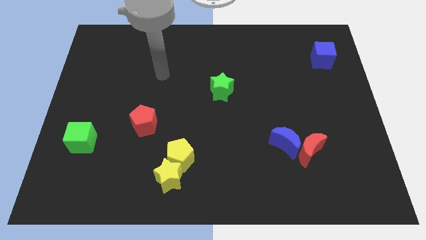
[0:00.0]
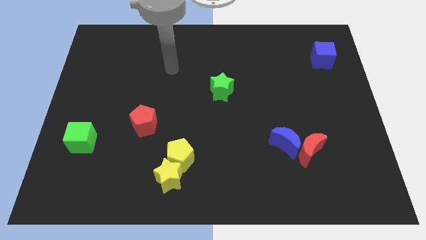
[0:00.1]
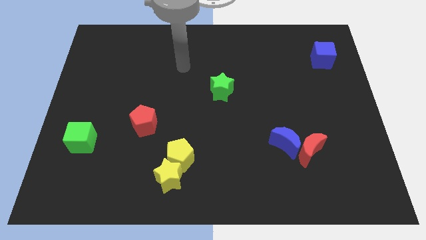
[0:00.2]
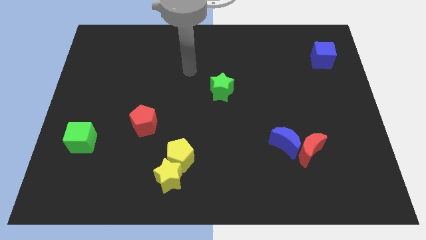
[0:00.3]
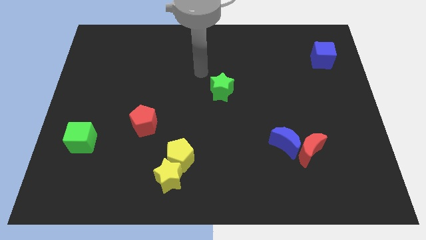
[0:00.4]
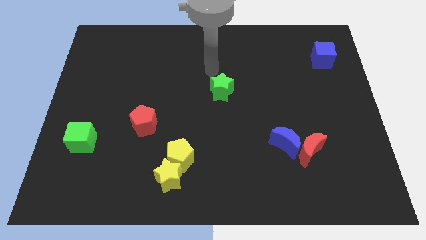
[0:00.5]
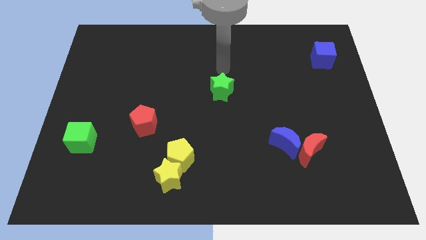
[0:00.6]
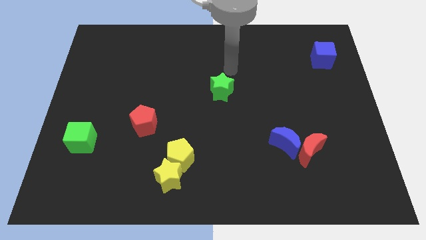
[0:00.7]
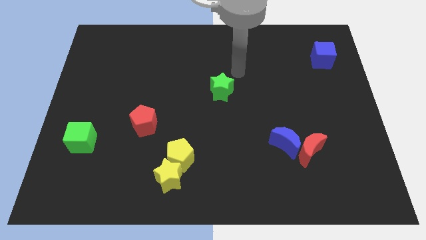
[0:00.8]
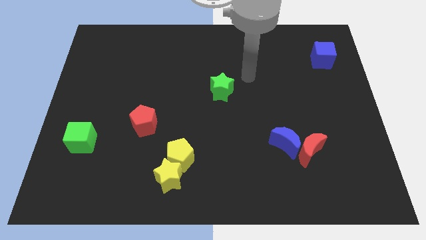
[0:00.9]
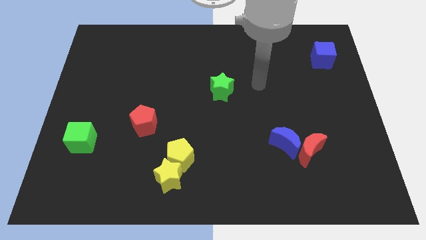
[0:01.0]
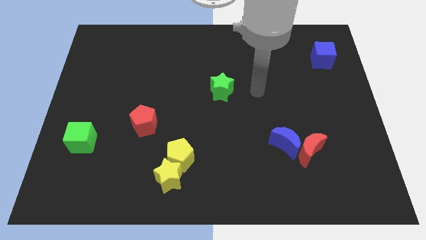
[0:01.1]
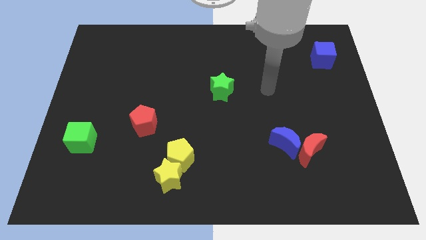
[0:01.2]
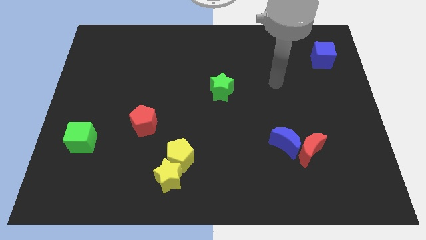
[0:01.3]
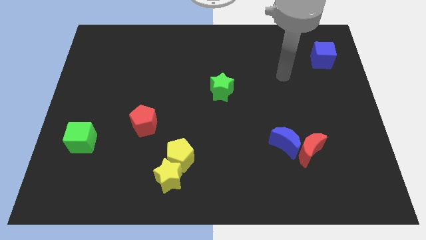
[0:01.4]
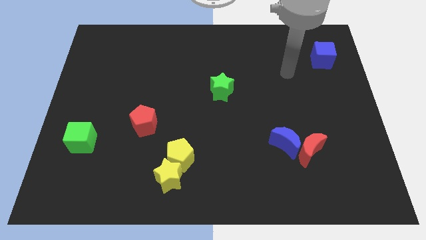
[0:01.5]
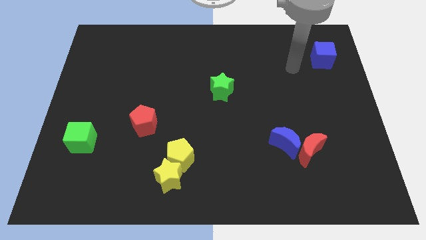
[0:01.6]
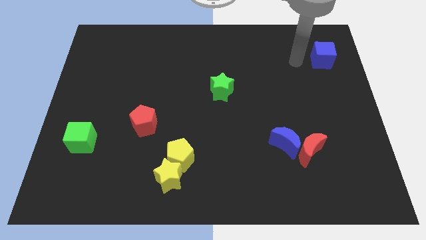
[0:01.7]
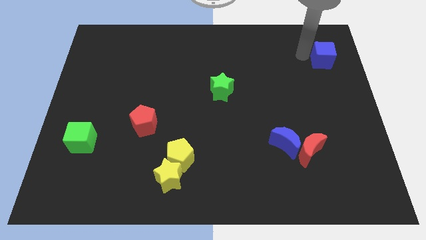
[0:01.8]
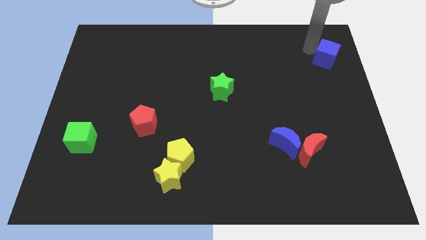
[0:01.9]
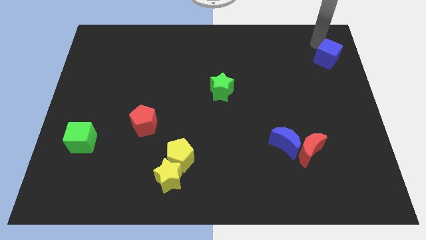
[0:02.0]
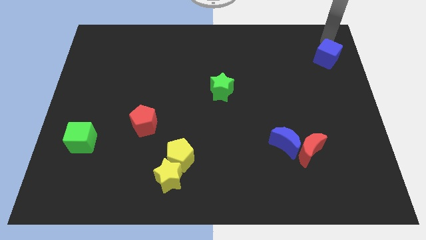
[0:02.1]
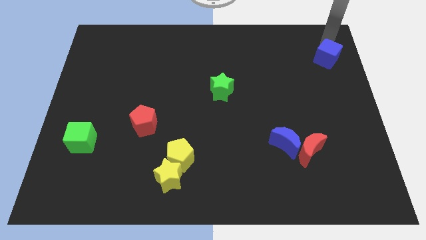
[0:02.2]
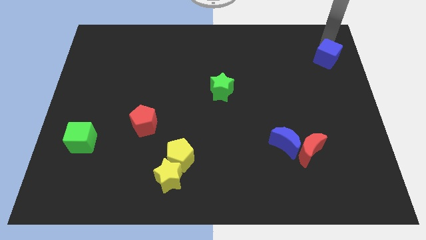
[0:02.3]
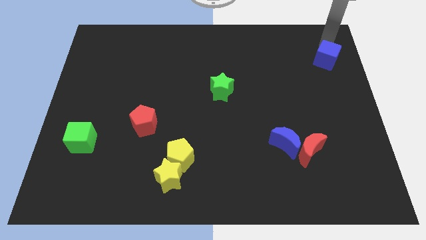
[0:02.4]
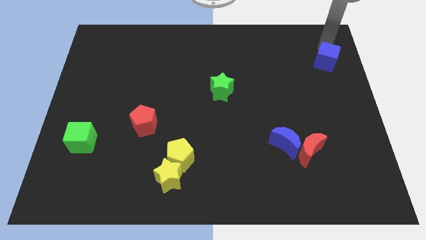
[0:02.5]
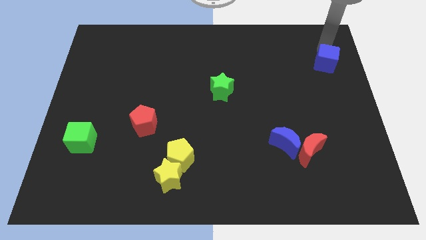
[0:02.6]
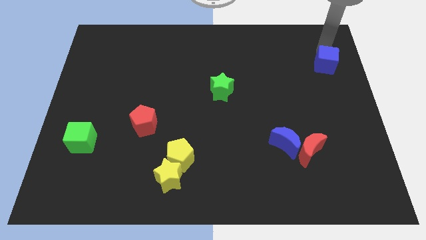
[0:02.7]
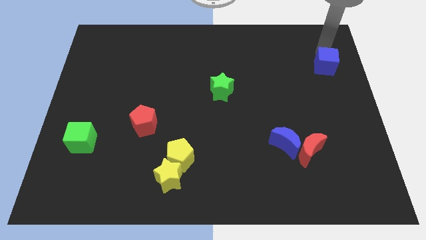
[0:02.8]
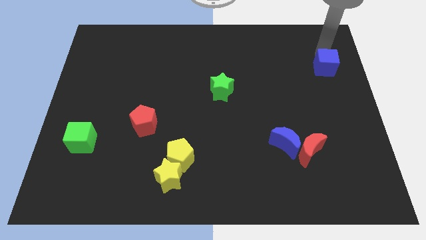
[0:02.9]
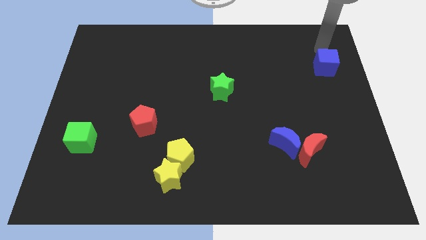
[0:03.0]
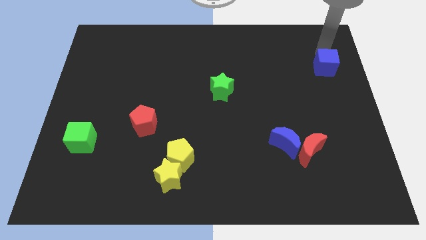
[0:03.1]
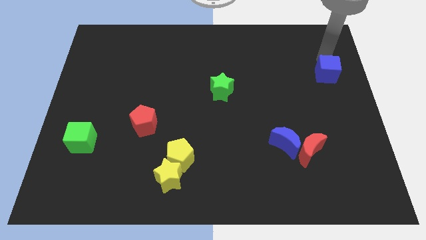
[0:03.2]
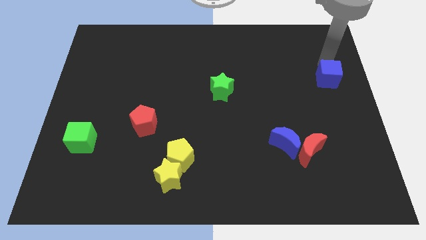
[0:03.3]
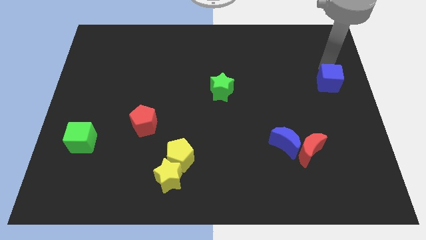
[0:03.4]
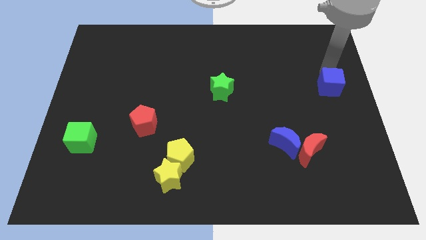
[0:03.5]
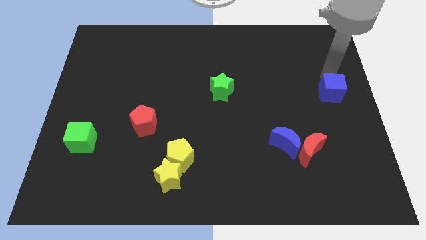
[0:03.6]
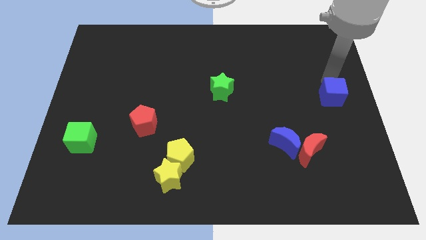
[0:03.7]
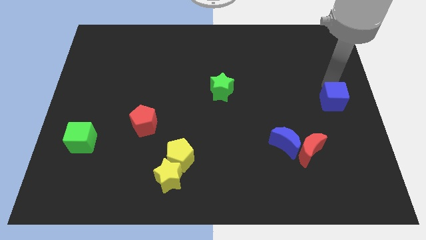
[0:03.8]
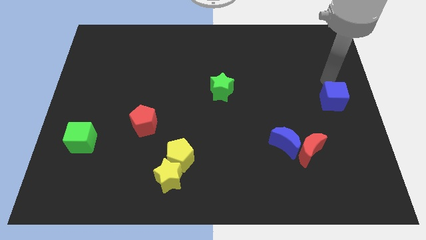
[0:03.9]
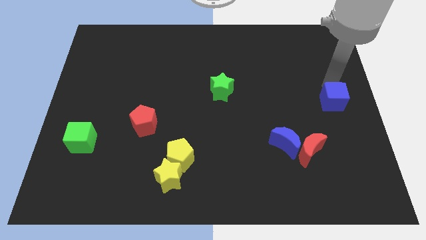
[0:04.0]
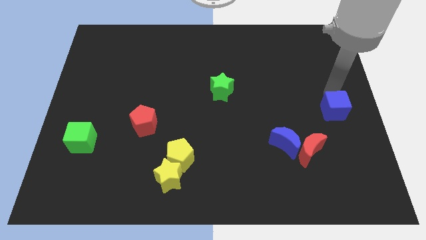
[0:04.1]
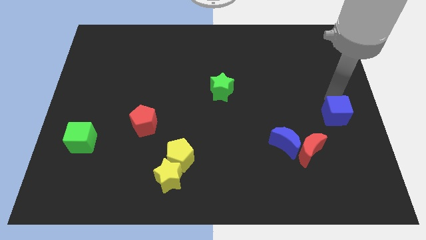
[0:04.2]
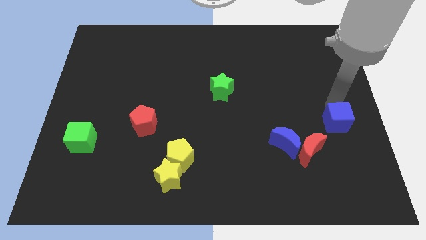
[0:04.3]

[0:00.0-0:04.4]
slide the blue cube downwards

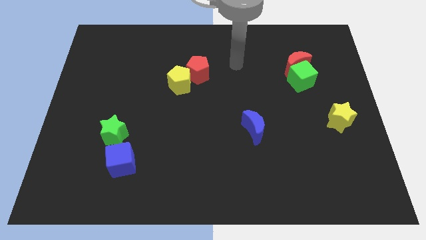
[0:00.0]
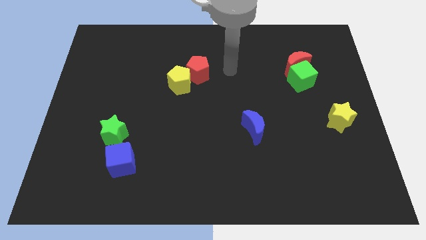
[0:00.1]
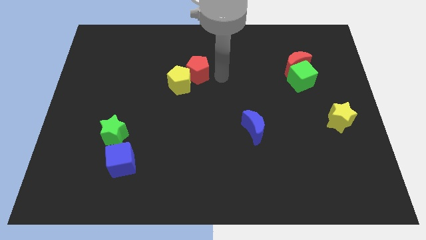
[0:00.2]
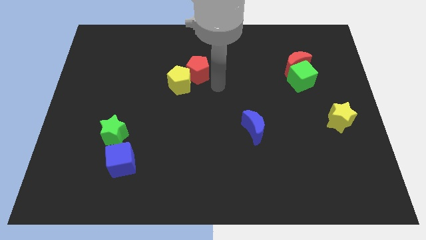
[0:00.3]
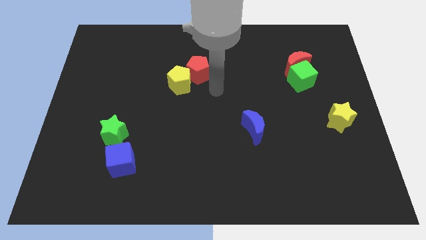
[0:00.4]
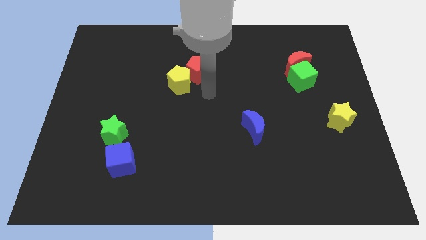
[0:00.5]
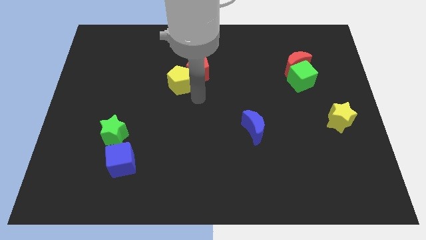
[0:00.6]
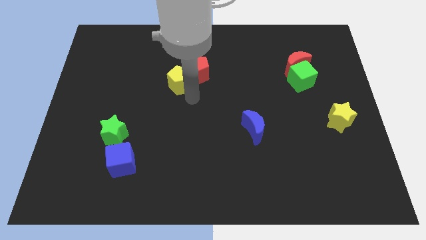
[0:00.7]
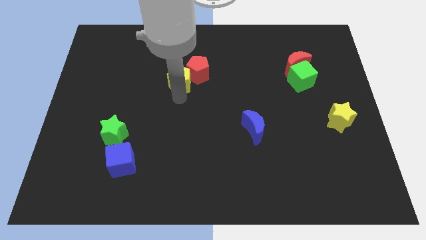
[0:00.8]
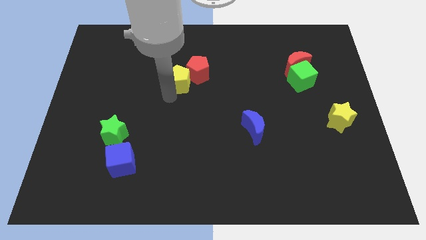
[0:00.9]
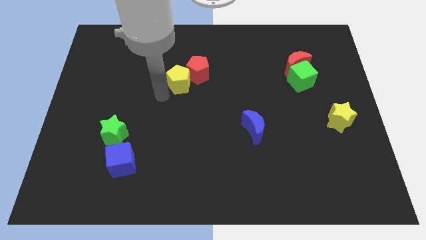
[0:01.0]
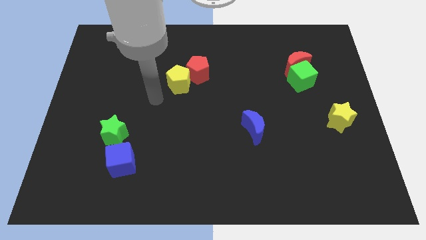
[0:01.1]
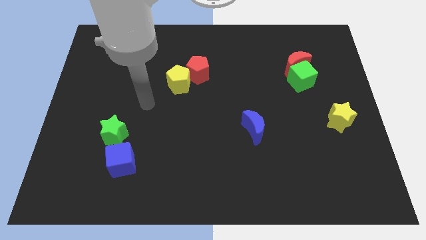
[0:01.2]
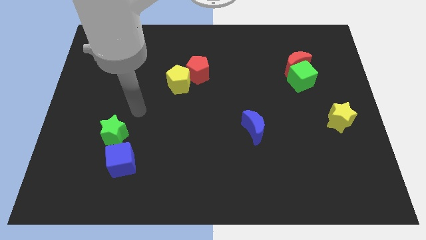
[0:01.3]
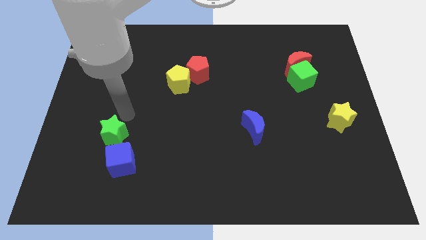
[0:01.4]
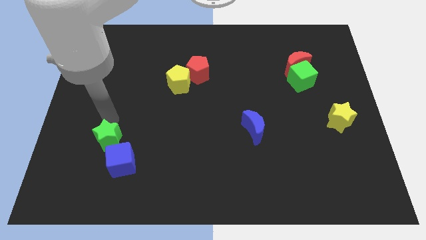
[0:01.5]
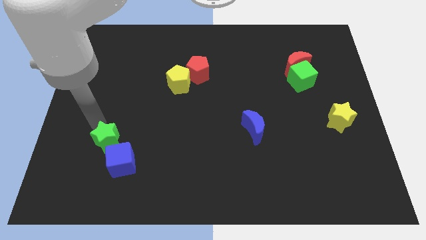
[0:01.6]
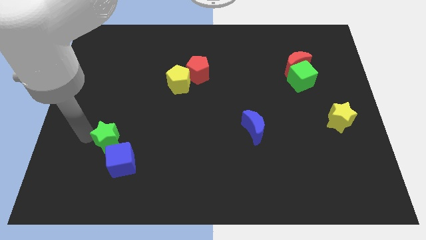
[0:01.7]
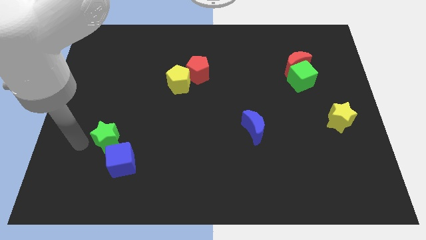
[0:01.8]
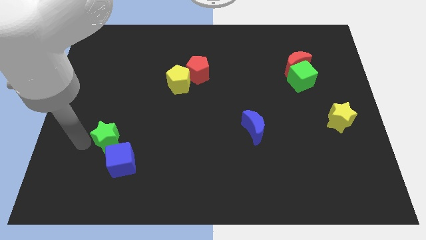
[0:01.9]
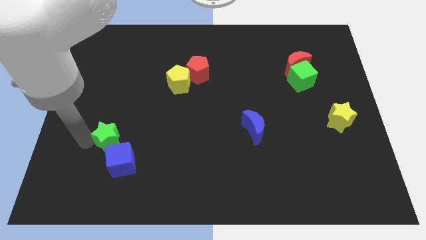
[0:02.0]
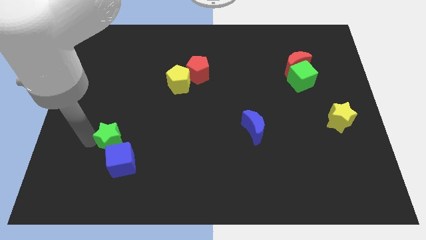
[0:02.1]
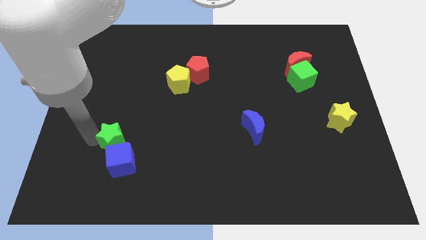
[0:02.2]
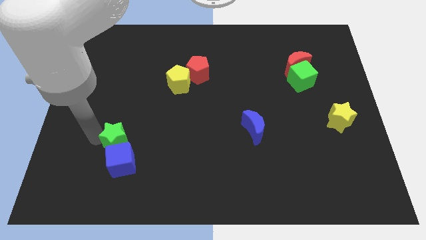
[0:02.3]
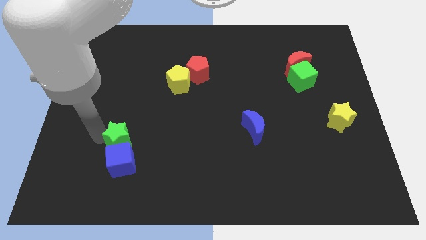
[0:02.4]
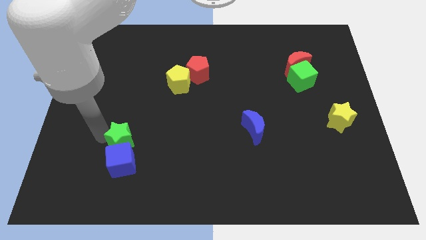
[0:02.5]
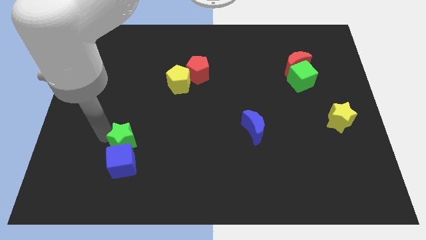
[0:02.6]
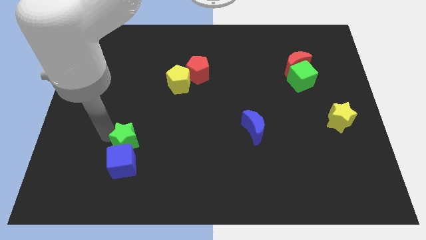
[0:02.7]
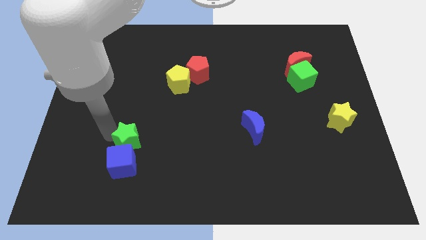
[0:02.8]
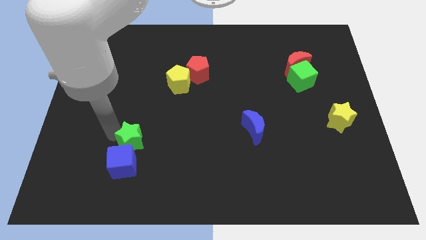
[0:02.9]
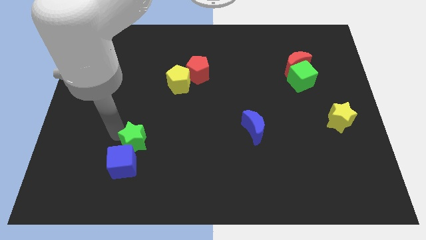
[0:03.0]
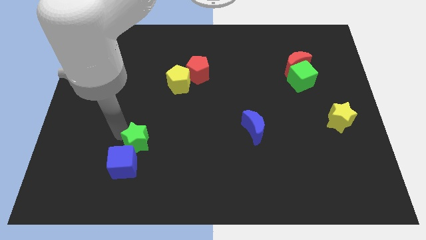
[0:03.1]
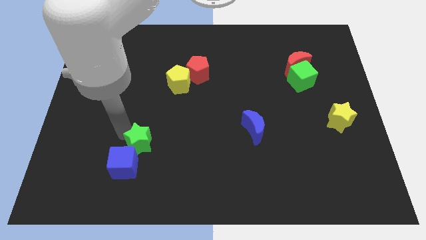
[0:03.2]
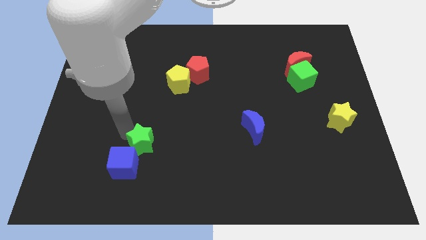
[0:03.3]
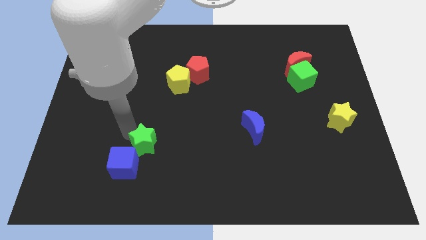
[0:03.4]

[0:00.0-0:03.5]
slide the green star right a little bit
